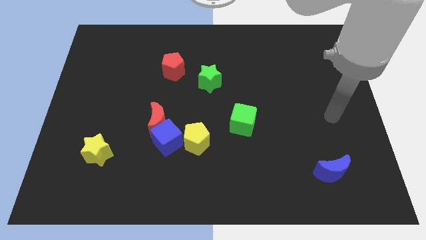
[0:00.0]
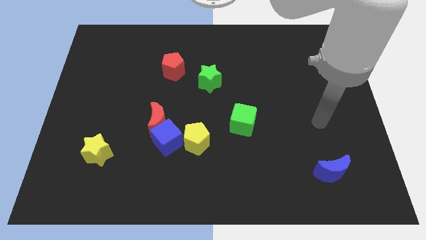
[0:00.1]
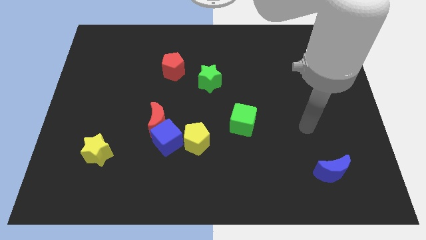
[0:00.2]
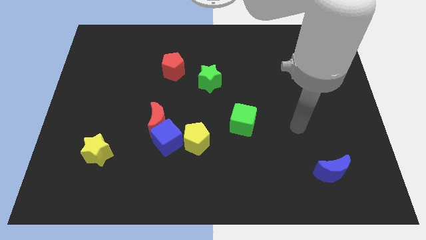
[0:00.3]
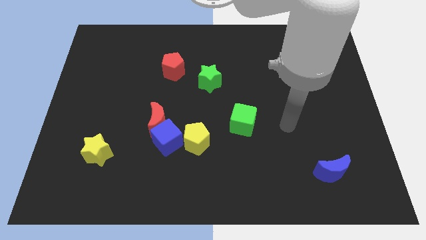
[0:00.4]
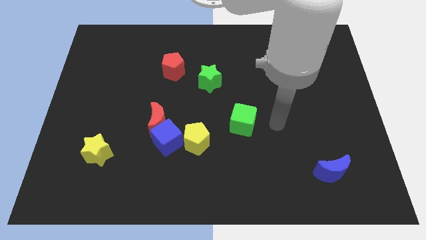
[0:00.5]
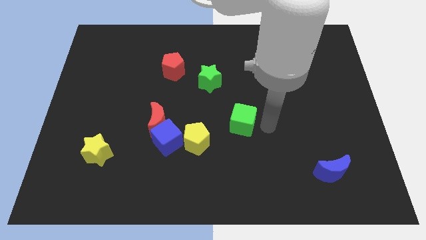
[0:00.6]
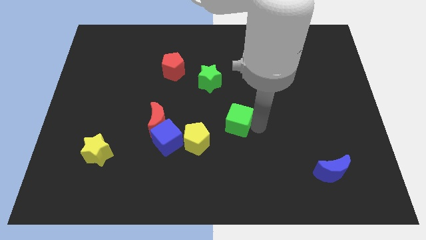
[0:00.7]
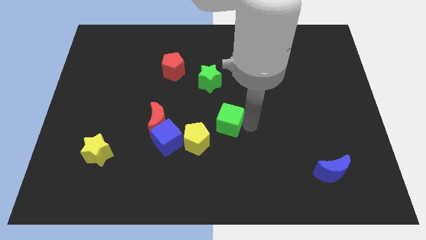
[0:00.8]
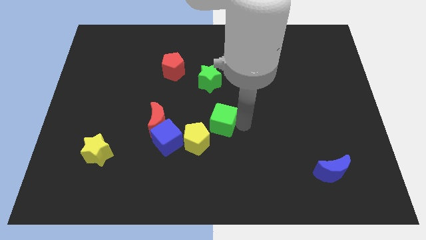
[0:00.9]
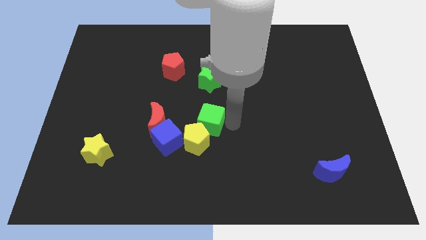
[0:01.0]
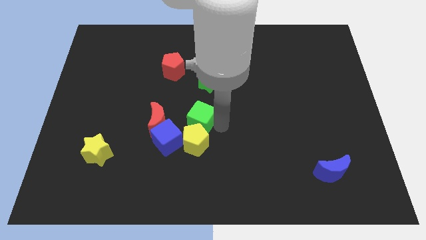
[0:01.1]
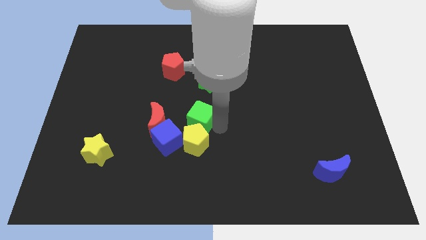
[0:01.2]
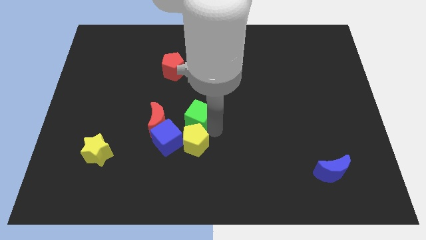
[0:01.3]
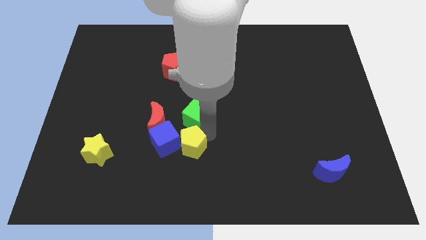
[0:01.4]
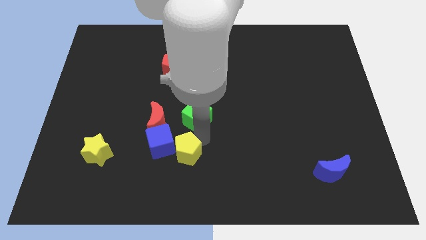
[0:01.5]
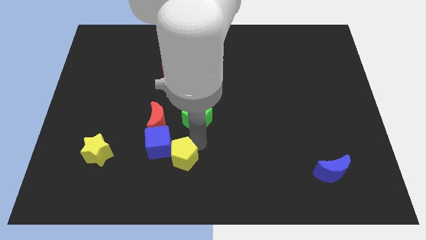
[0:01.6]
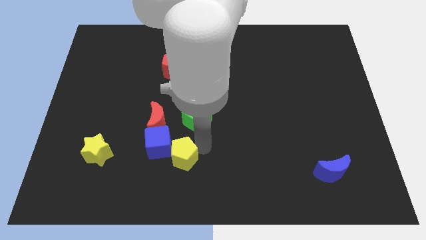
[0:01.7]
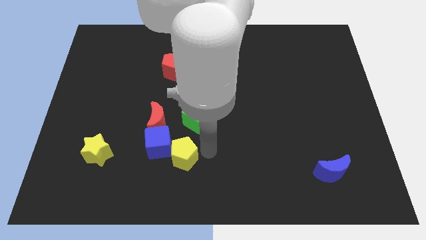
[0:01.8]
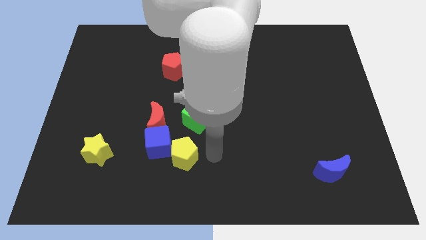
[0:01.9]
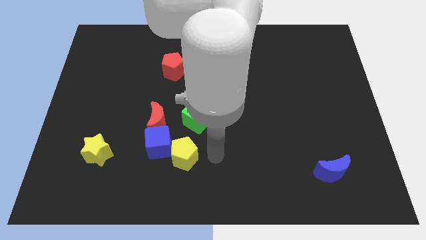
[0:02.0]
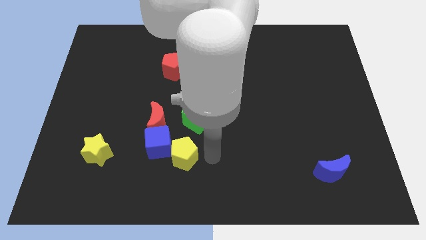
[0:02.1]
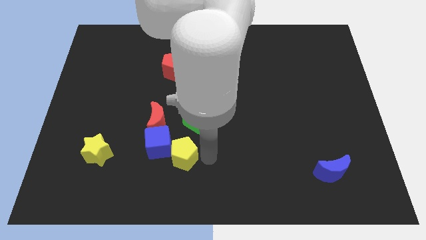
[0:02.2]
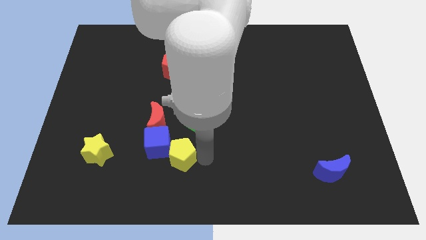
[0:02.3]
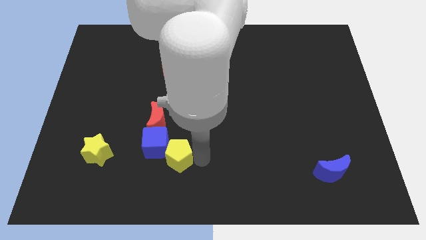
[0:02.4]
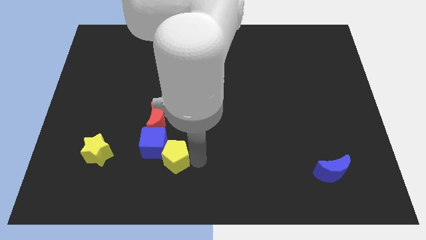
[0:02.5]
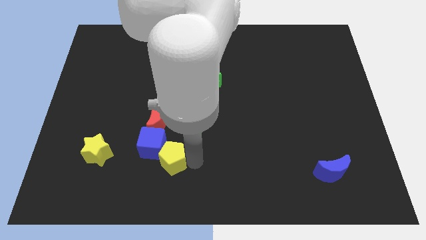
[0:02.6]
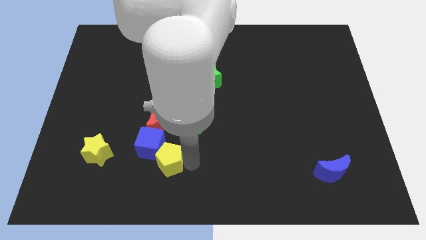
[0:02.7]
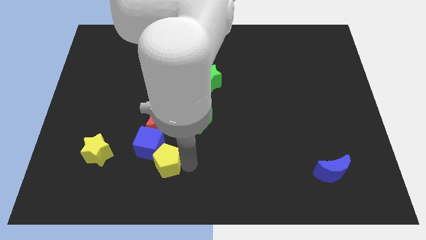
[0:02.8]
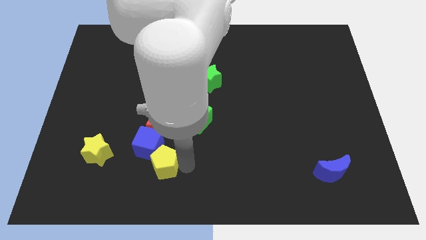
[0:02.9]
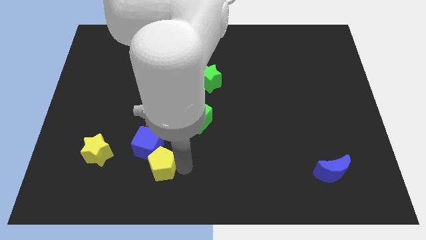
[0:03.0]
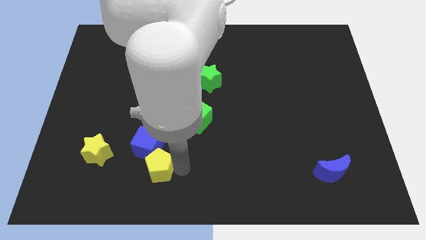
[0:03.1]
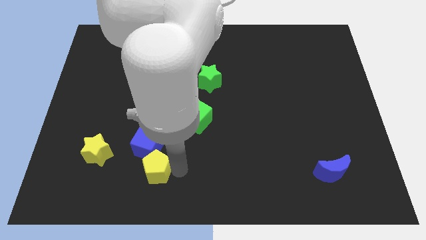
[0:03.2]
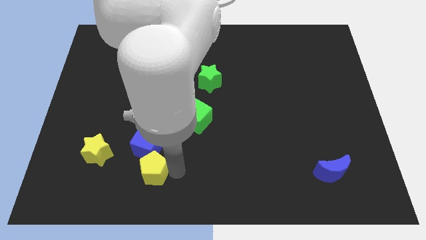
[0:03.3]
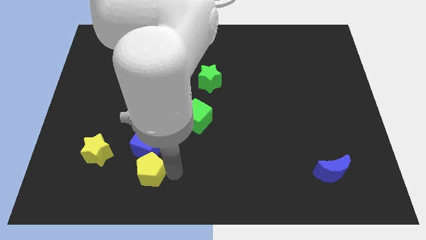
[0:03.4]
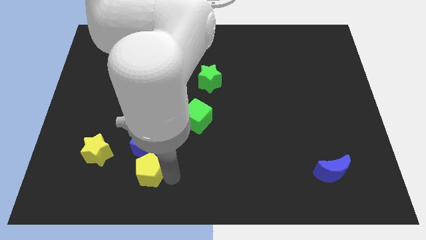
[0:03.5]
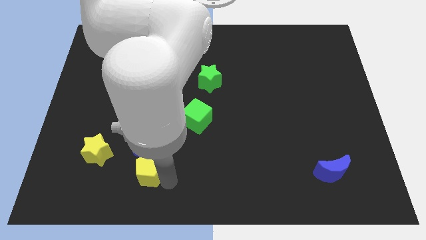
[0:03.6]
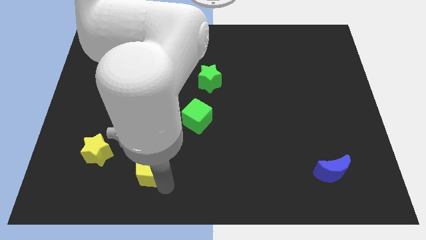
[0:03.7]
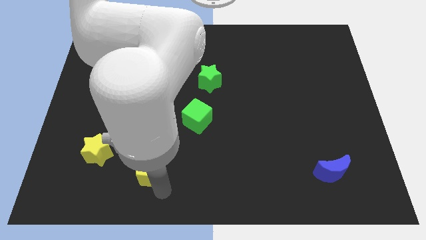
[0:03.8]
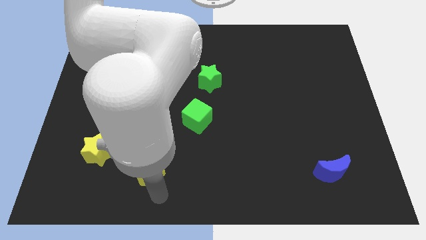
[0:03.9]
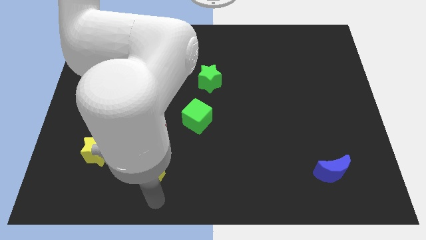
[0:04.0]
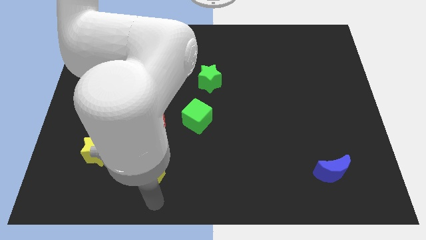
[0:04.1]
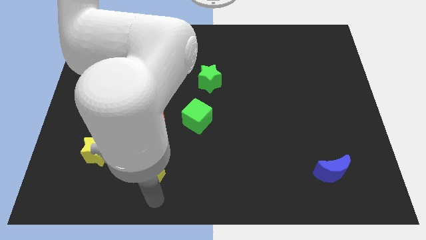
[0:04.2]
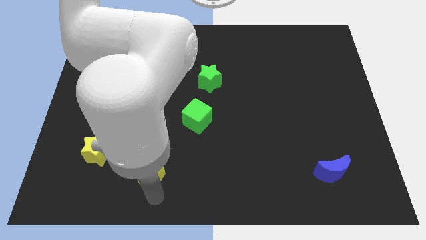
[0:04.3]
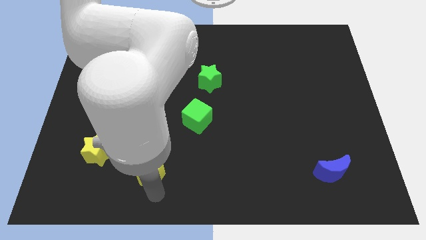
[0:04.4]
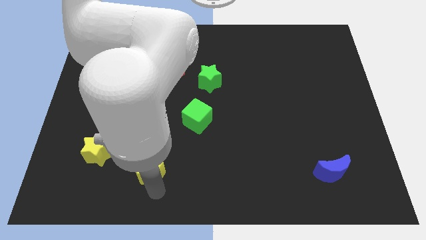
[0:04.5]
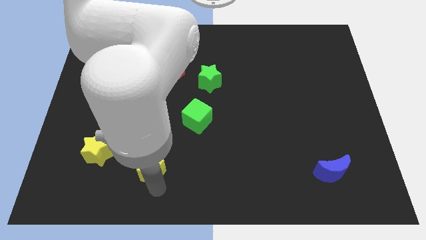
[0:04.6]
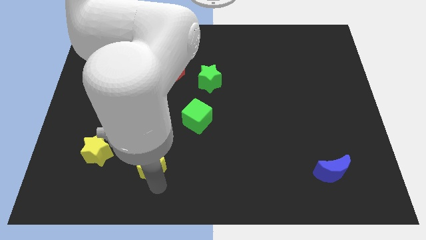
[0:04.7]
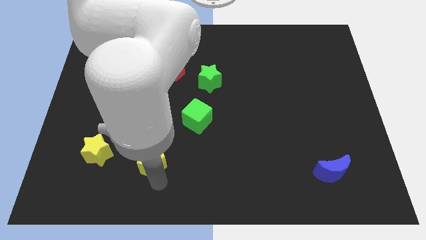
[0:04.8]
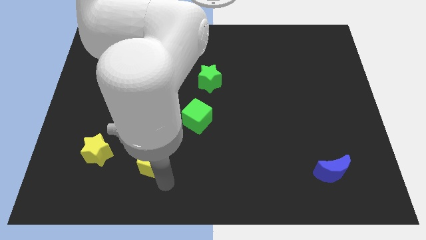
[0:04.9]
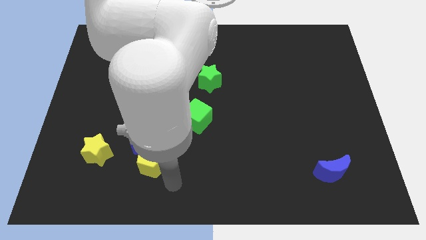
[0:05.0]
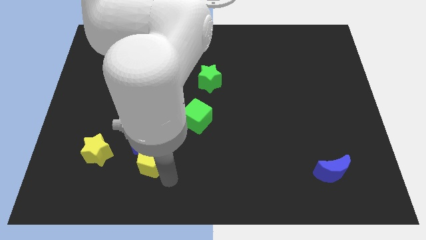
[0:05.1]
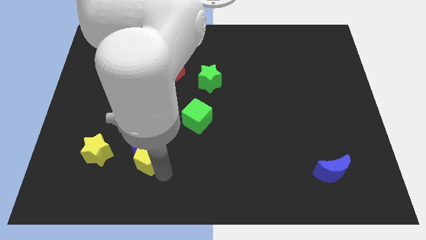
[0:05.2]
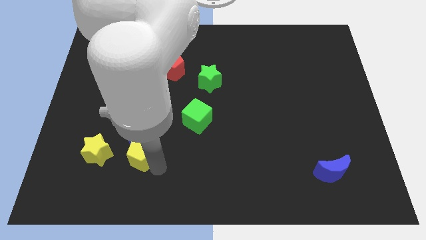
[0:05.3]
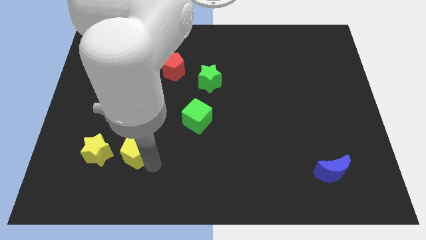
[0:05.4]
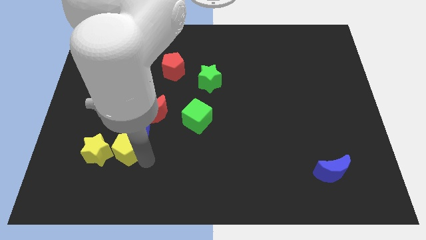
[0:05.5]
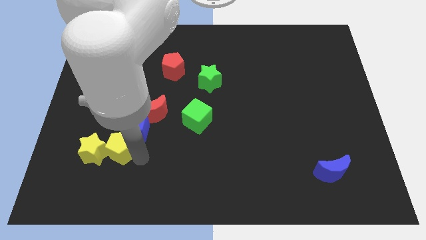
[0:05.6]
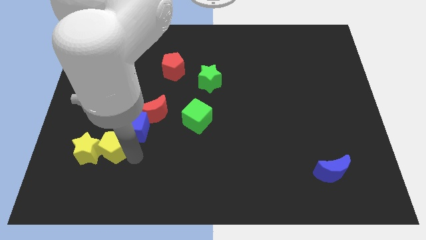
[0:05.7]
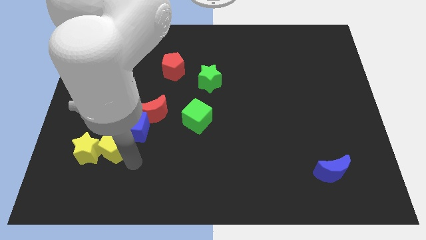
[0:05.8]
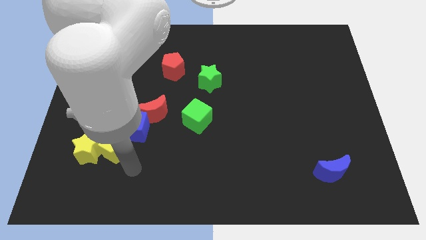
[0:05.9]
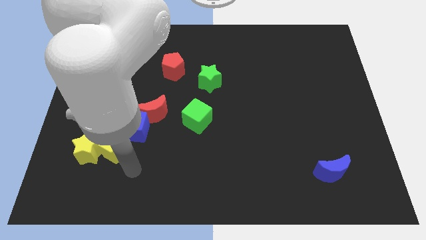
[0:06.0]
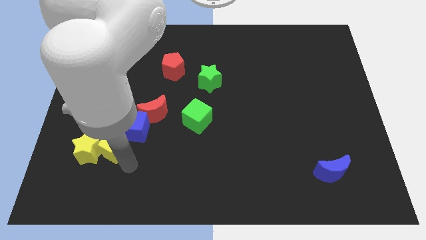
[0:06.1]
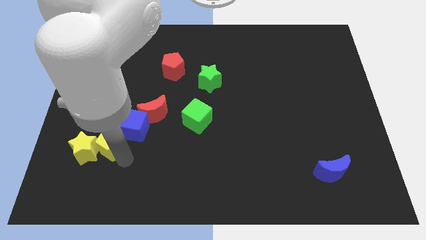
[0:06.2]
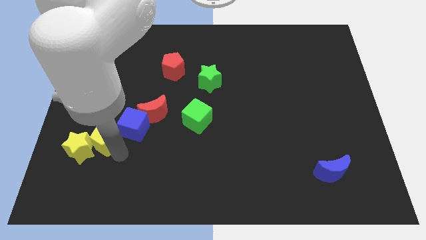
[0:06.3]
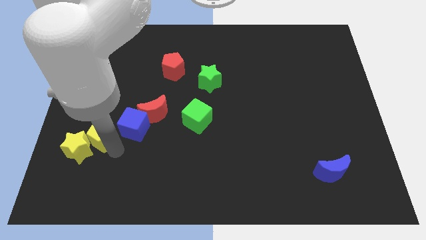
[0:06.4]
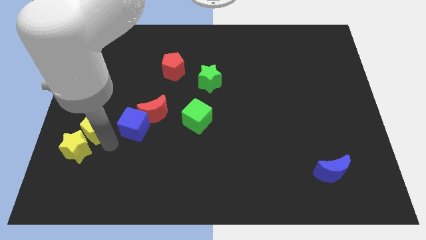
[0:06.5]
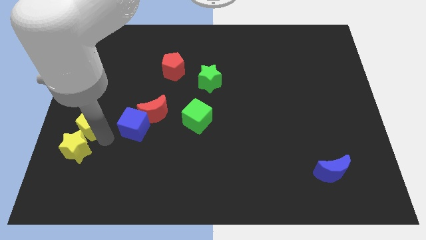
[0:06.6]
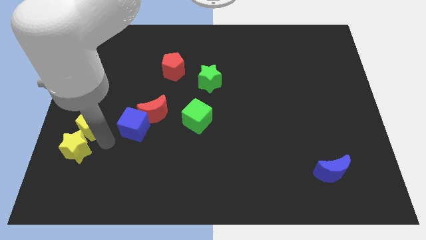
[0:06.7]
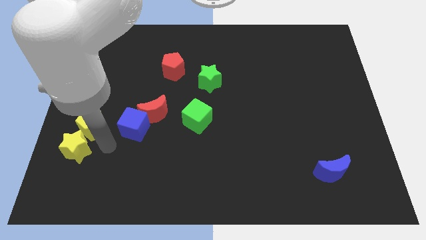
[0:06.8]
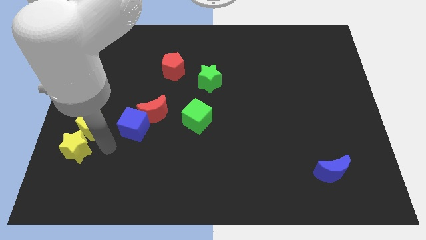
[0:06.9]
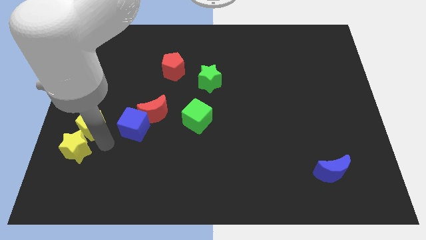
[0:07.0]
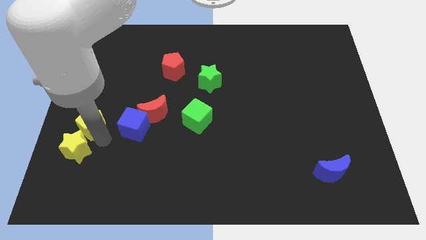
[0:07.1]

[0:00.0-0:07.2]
slide the yellow pentagon to the center left
